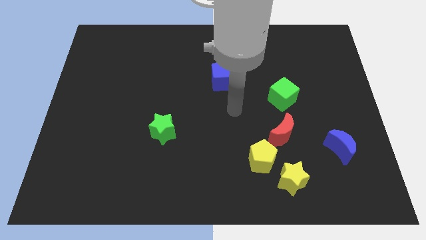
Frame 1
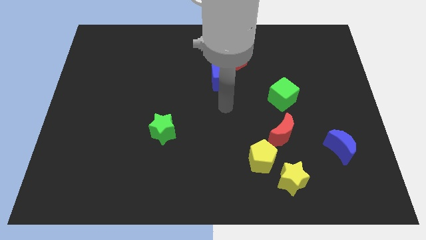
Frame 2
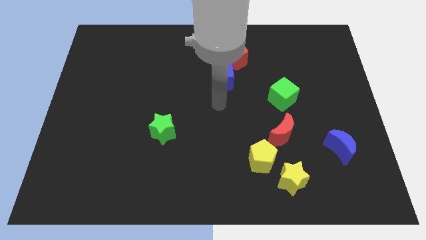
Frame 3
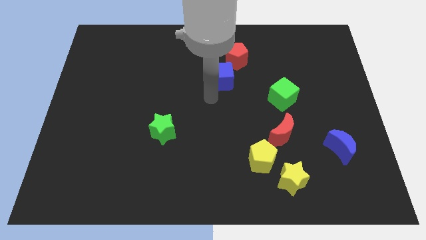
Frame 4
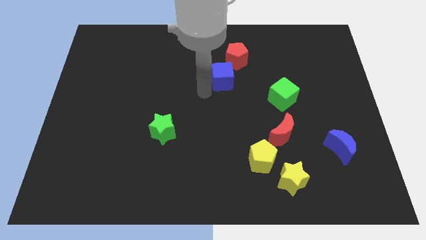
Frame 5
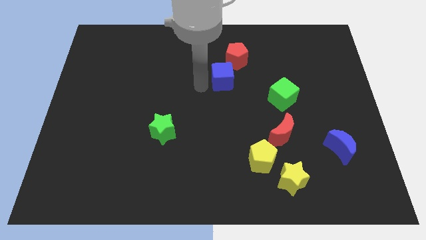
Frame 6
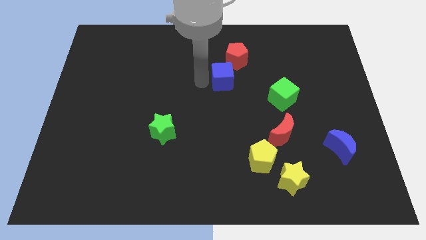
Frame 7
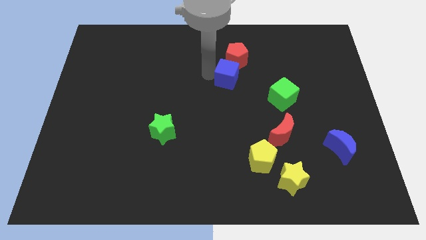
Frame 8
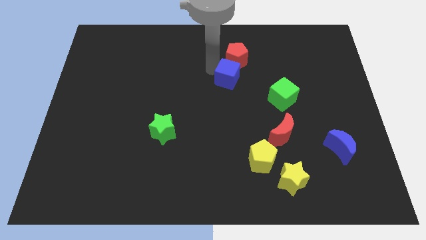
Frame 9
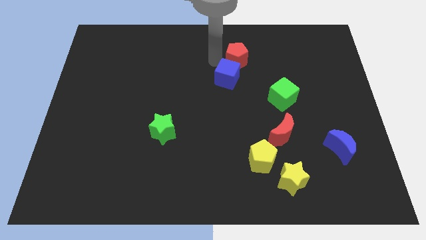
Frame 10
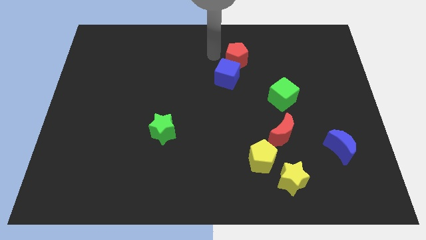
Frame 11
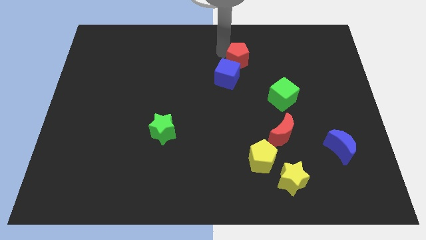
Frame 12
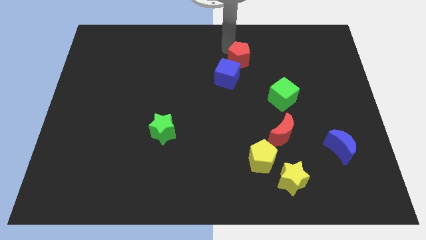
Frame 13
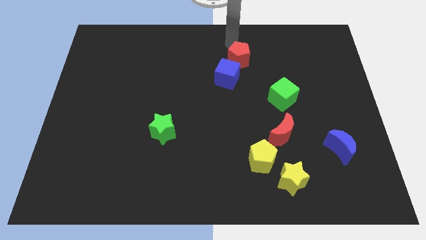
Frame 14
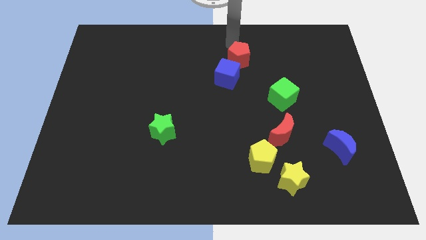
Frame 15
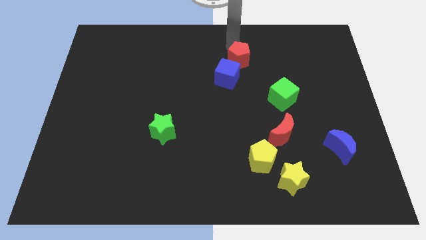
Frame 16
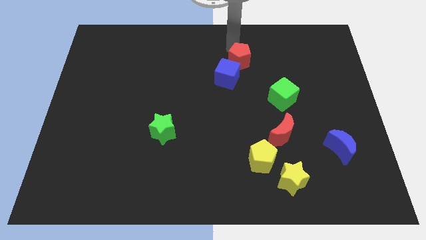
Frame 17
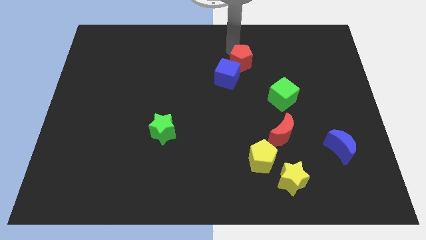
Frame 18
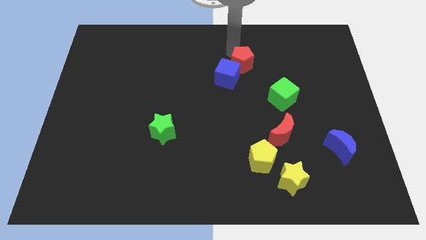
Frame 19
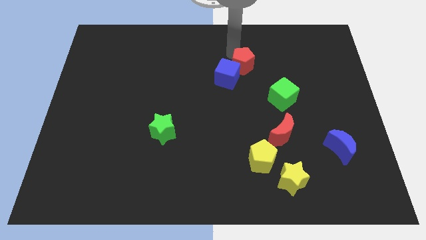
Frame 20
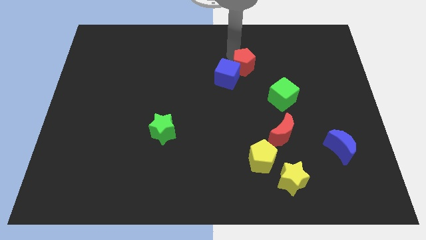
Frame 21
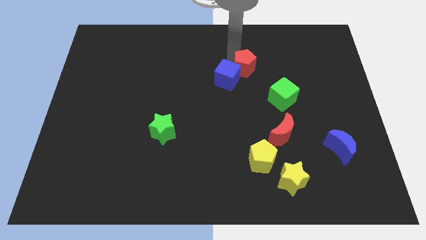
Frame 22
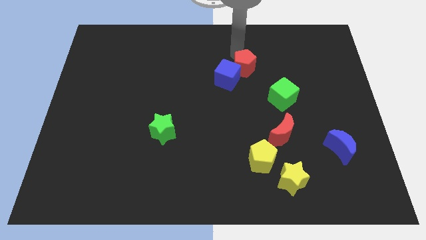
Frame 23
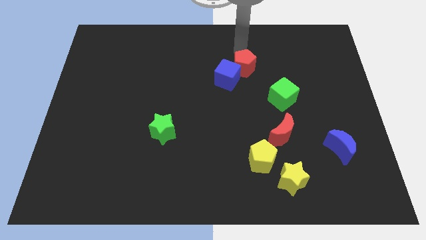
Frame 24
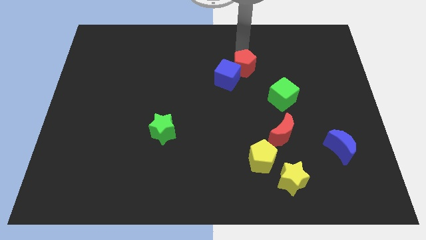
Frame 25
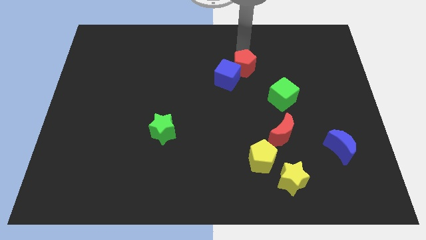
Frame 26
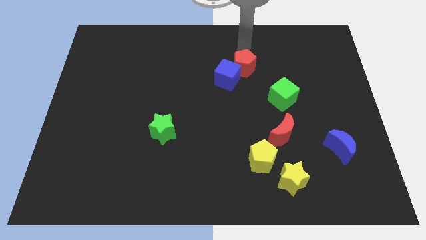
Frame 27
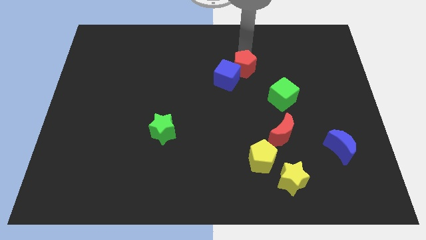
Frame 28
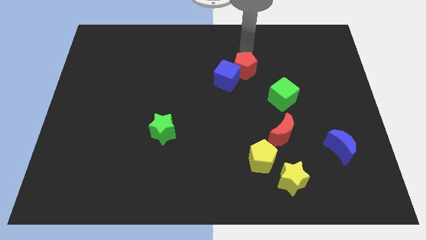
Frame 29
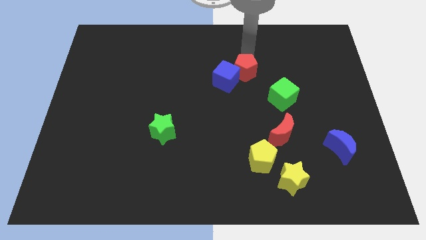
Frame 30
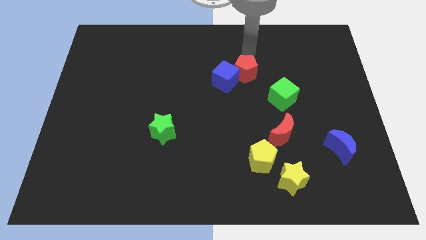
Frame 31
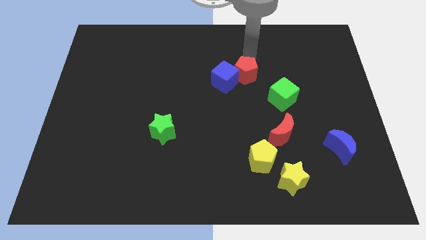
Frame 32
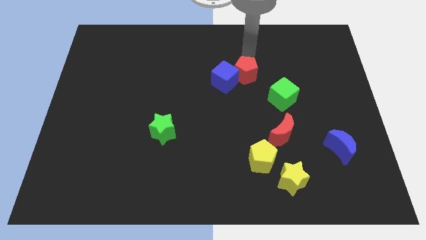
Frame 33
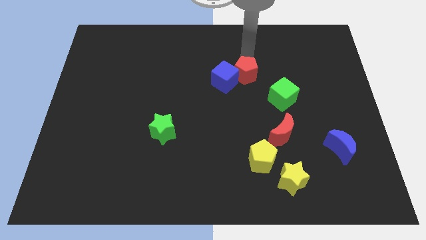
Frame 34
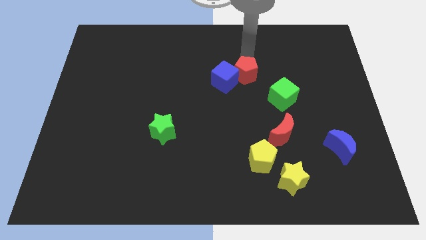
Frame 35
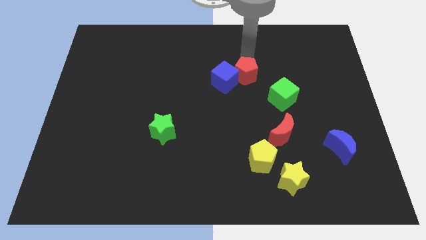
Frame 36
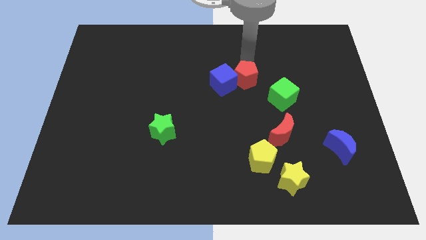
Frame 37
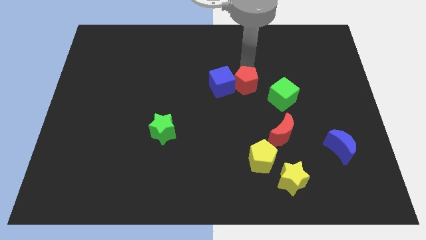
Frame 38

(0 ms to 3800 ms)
move the red pentagon a little downwards

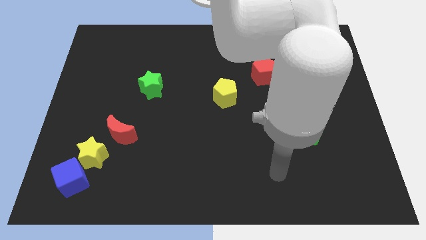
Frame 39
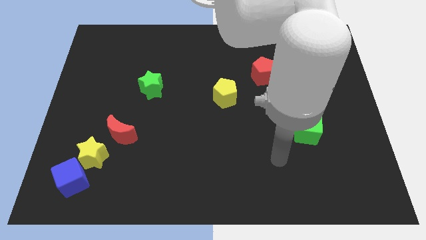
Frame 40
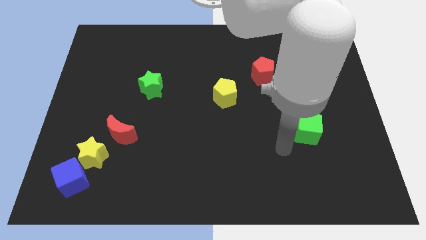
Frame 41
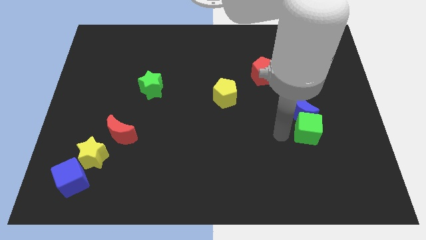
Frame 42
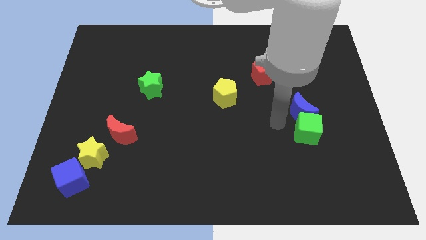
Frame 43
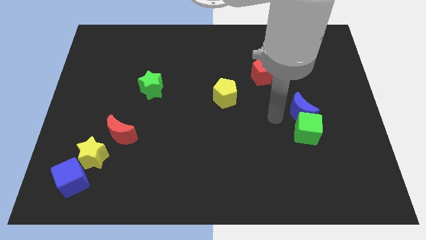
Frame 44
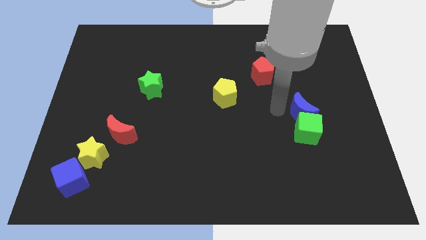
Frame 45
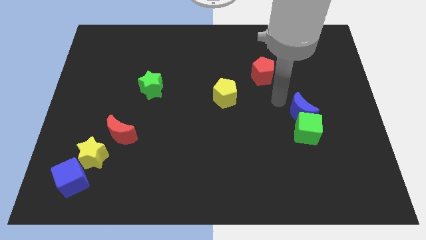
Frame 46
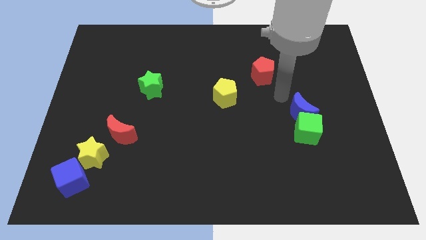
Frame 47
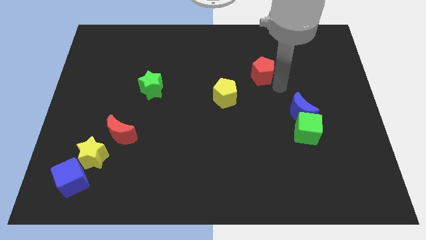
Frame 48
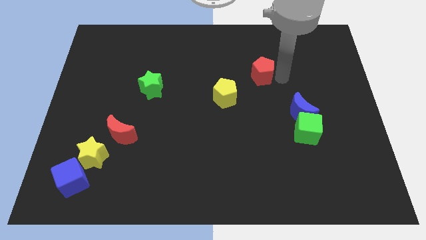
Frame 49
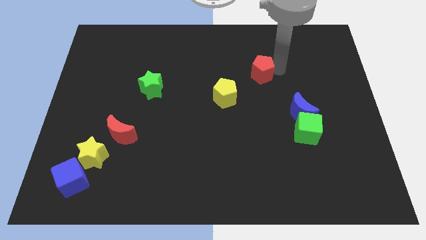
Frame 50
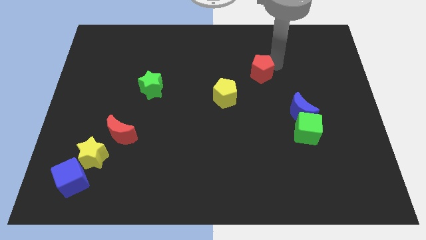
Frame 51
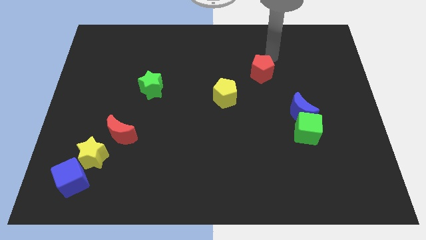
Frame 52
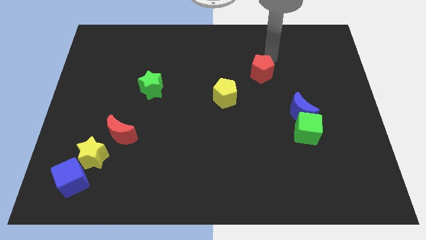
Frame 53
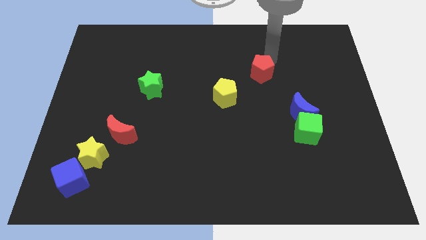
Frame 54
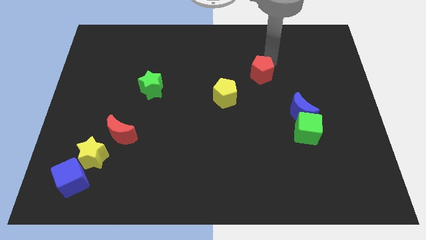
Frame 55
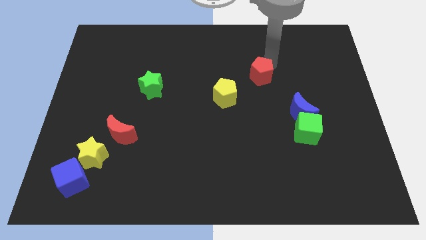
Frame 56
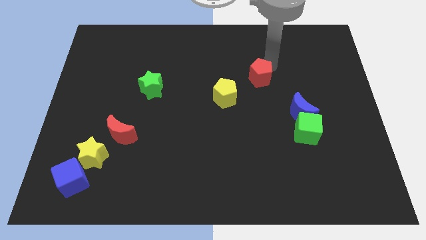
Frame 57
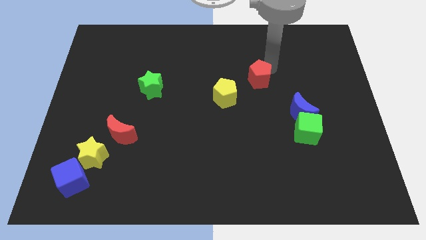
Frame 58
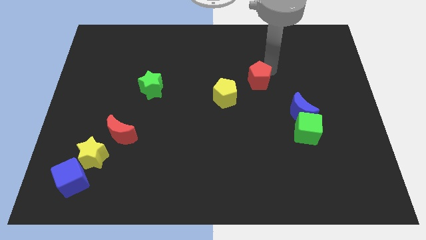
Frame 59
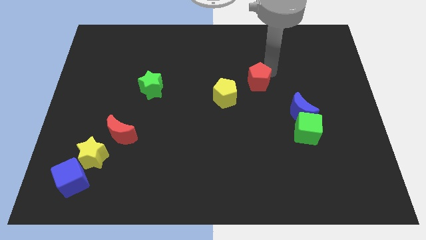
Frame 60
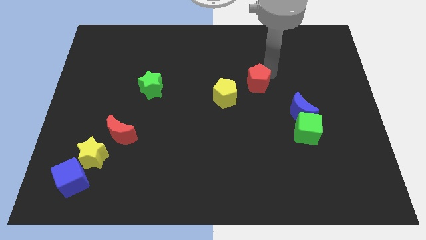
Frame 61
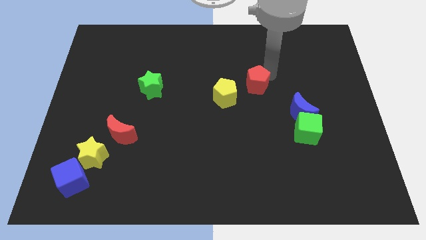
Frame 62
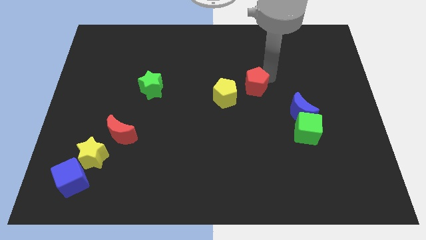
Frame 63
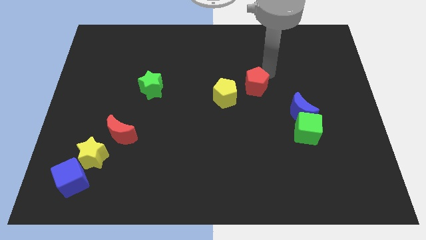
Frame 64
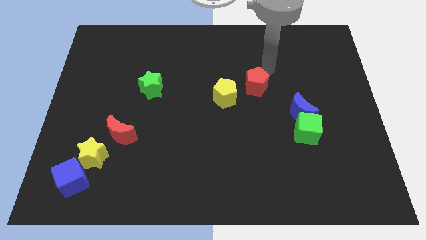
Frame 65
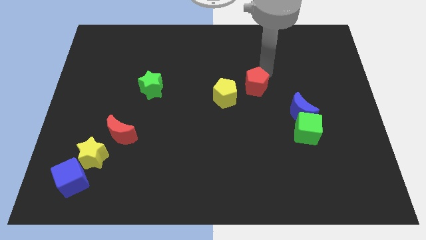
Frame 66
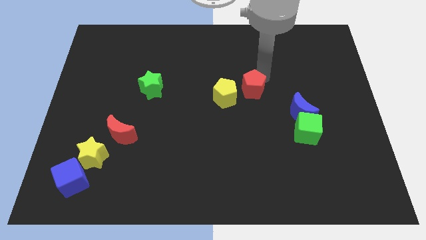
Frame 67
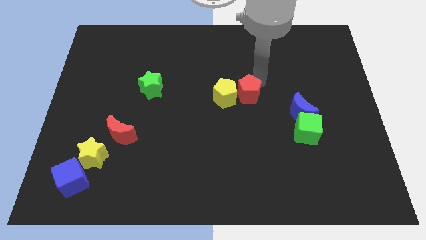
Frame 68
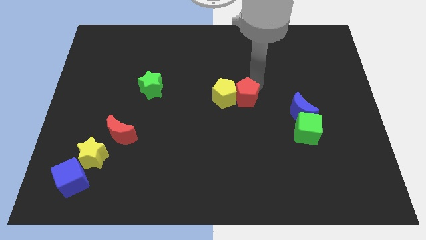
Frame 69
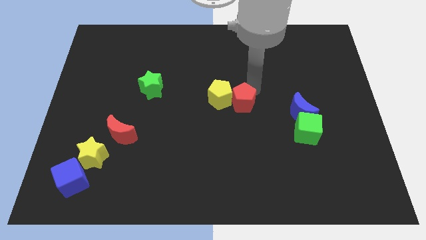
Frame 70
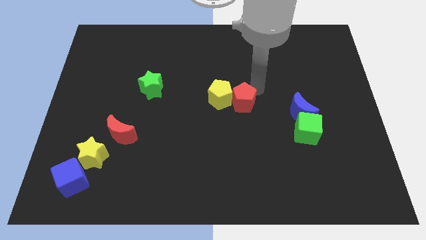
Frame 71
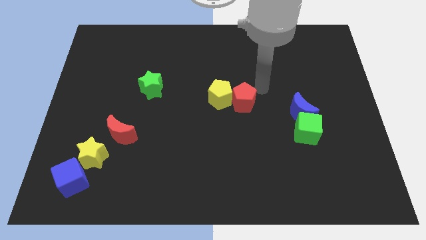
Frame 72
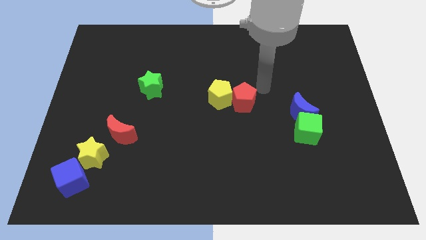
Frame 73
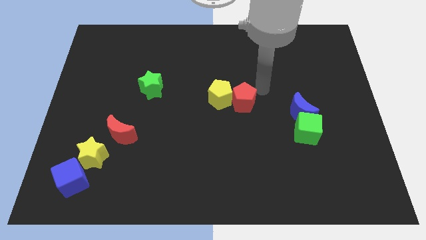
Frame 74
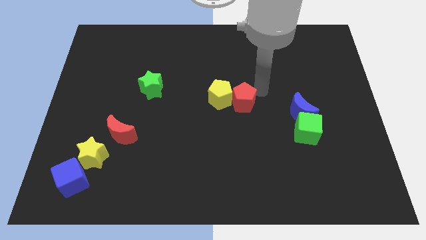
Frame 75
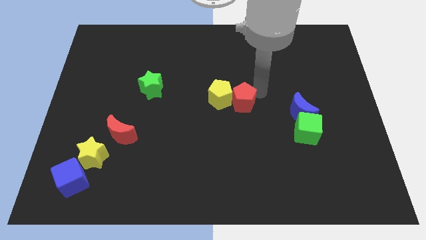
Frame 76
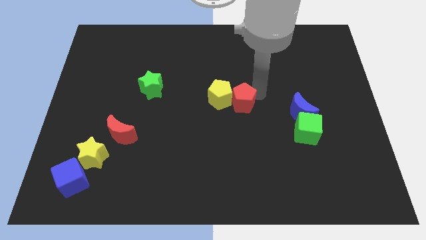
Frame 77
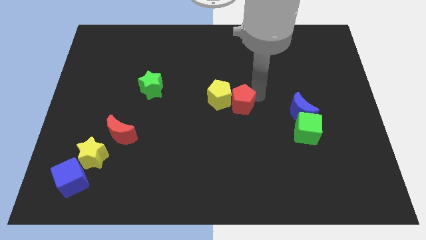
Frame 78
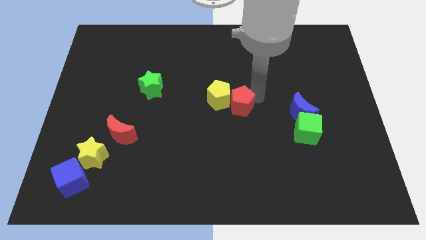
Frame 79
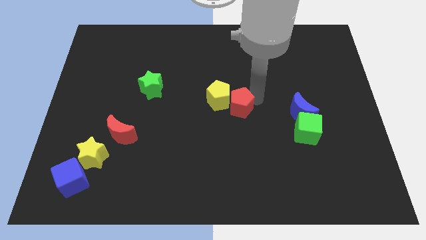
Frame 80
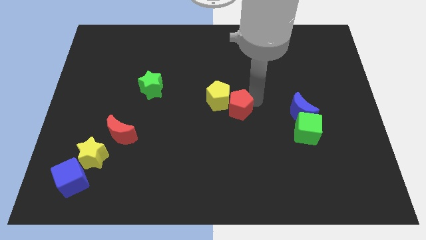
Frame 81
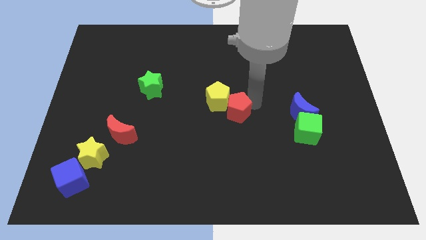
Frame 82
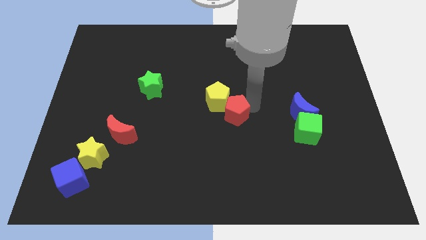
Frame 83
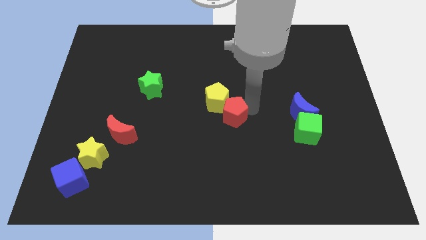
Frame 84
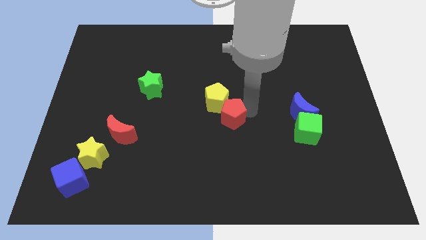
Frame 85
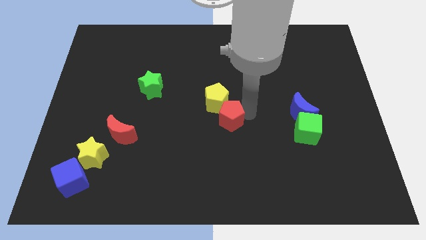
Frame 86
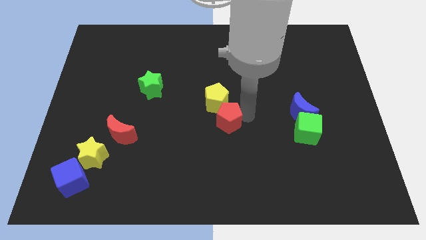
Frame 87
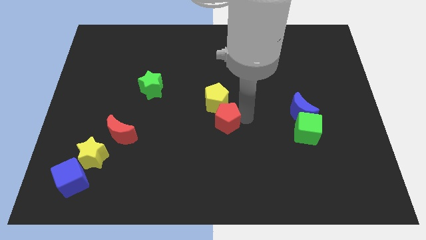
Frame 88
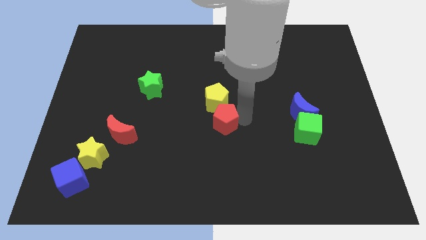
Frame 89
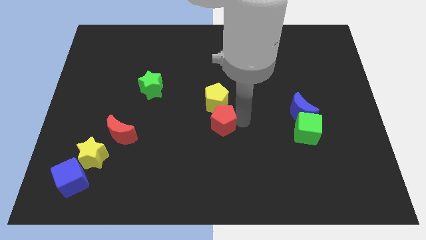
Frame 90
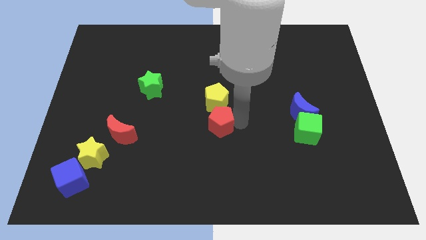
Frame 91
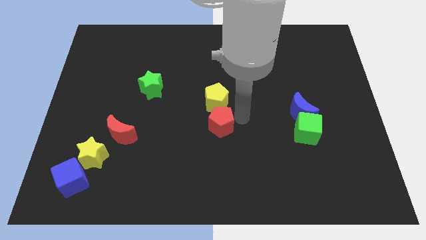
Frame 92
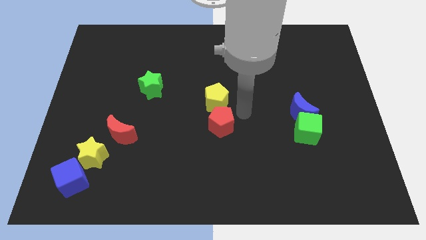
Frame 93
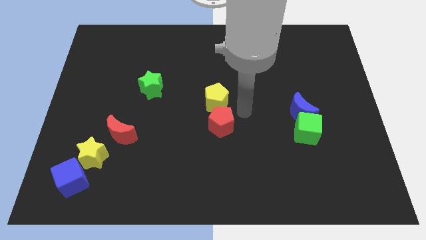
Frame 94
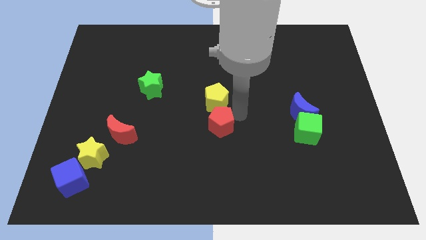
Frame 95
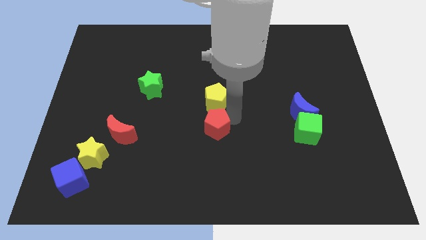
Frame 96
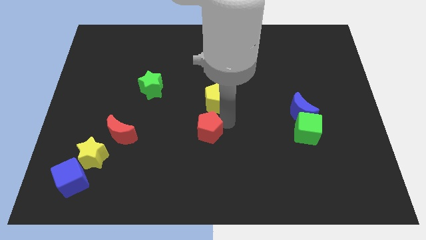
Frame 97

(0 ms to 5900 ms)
slide the red pentagon down and left diagonally
